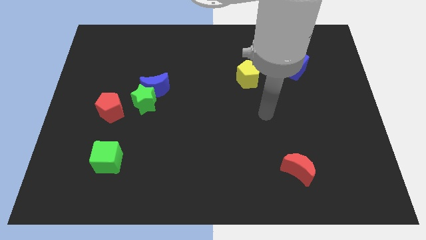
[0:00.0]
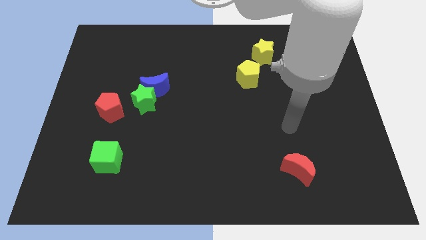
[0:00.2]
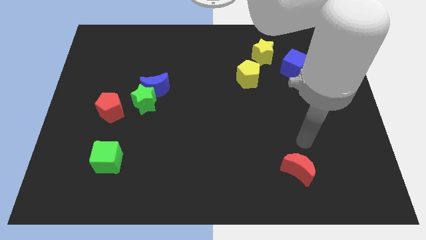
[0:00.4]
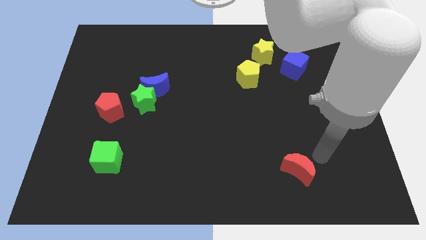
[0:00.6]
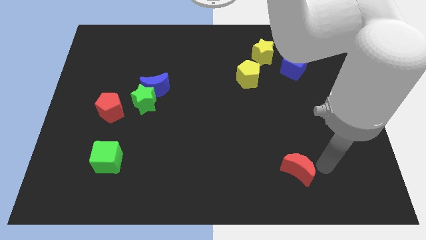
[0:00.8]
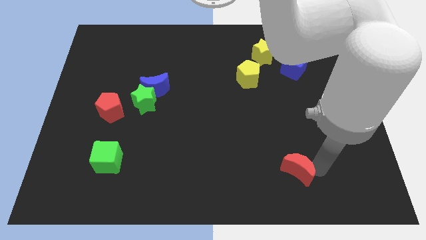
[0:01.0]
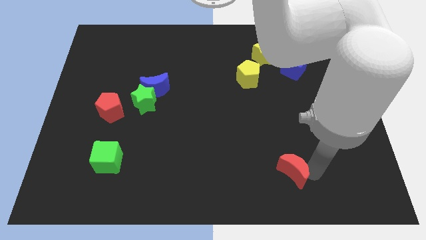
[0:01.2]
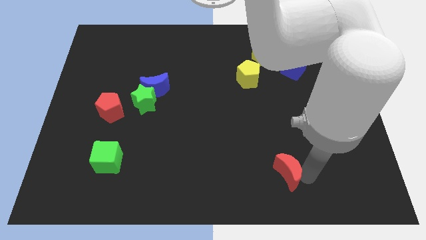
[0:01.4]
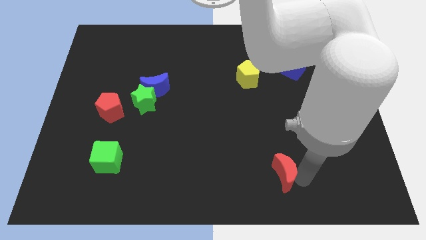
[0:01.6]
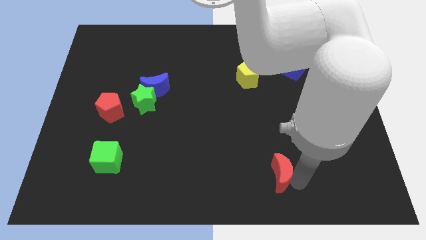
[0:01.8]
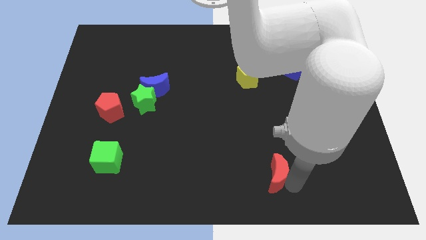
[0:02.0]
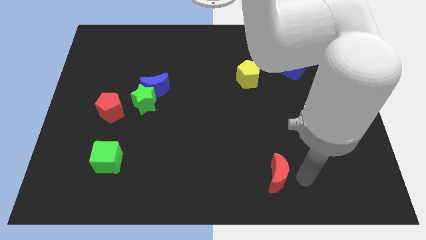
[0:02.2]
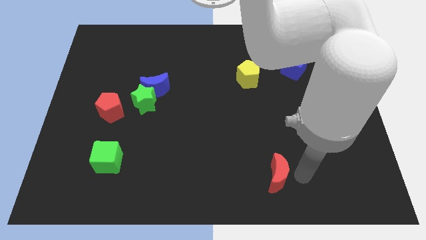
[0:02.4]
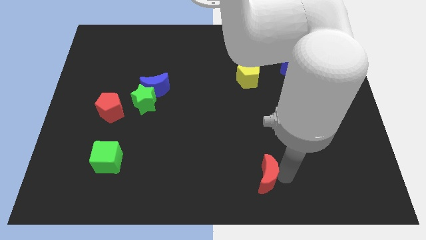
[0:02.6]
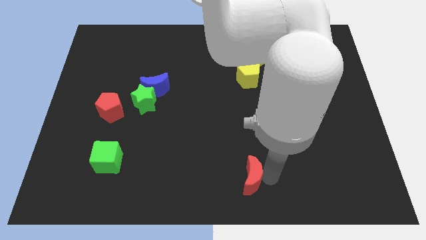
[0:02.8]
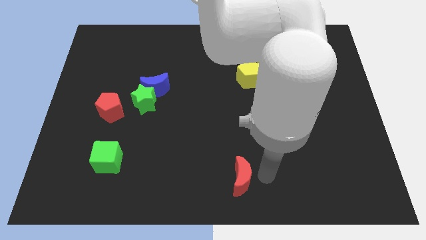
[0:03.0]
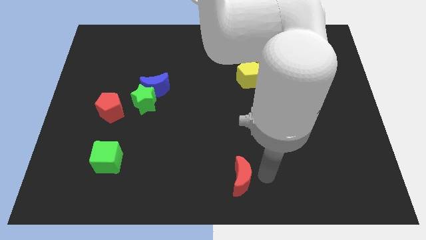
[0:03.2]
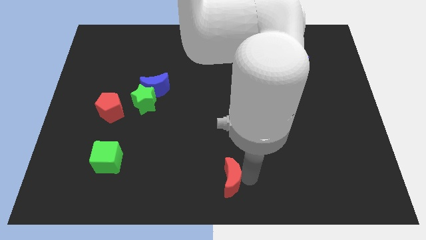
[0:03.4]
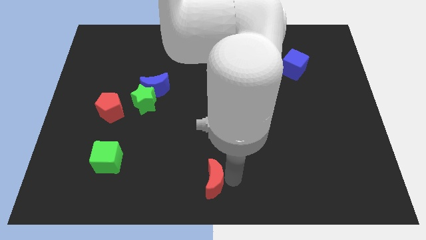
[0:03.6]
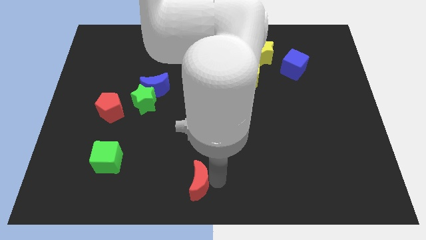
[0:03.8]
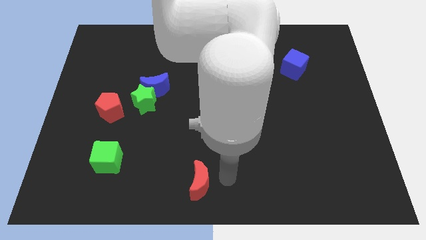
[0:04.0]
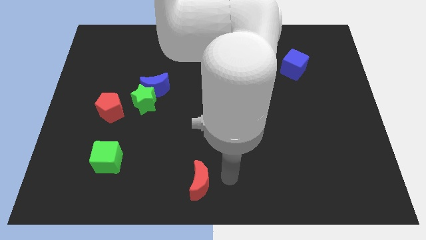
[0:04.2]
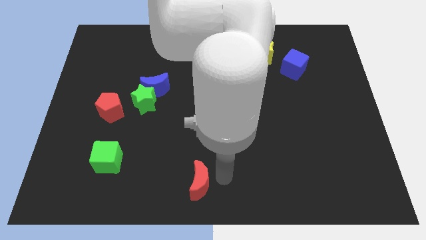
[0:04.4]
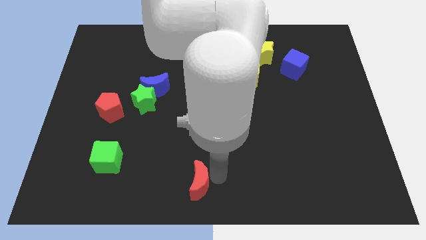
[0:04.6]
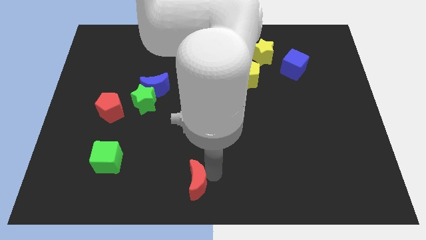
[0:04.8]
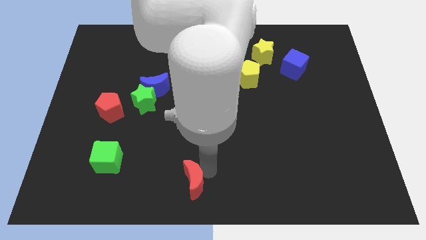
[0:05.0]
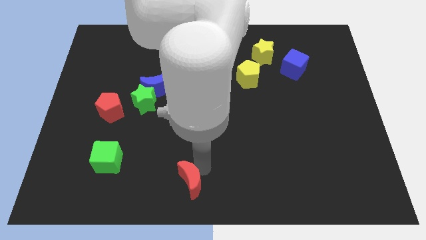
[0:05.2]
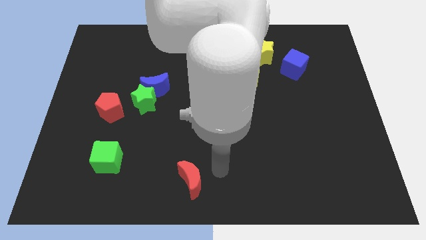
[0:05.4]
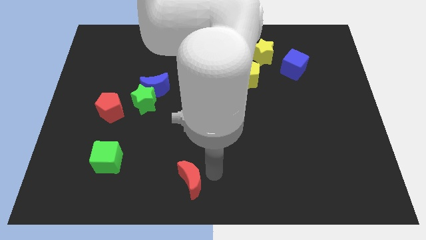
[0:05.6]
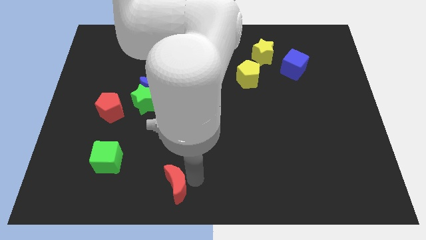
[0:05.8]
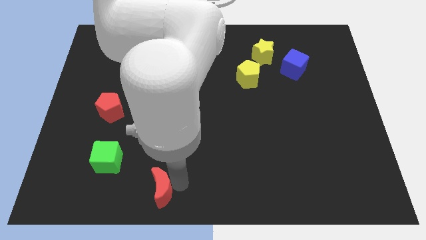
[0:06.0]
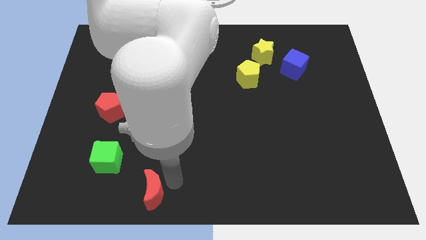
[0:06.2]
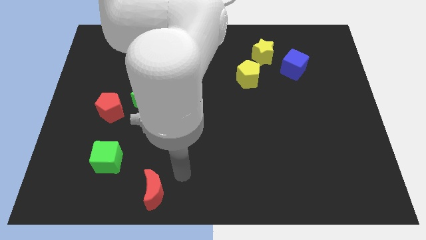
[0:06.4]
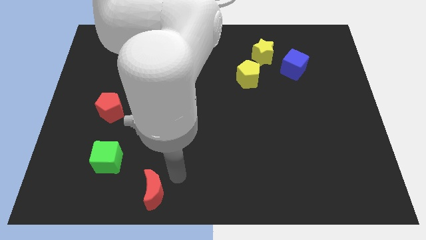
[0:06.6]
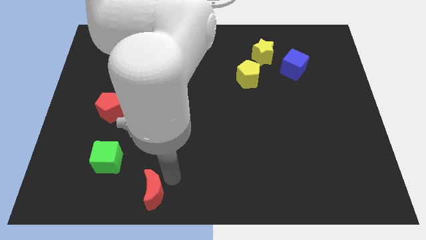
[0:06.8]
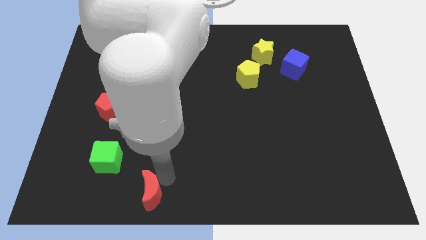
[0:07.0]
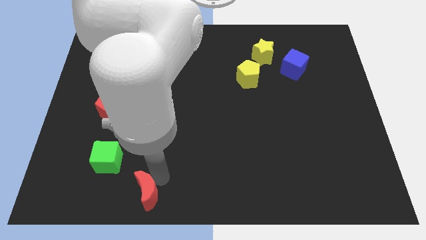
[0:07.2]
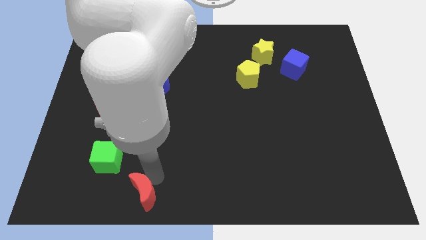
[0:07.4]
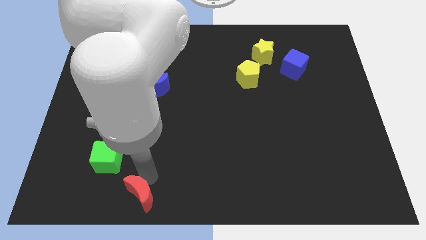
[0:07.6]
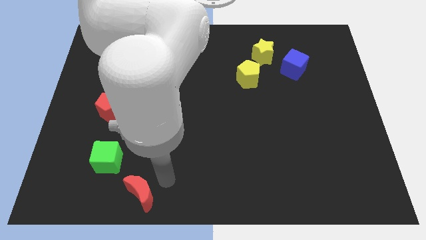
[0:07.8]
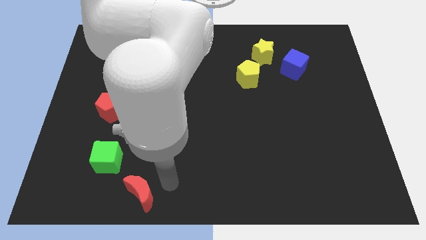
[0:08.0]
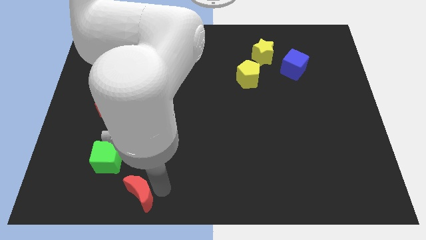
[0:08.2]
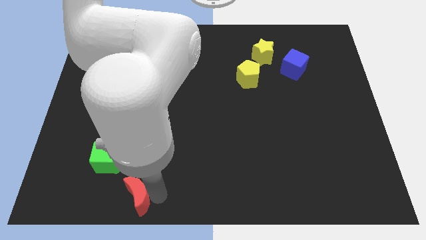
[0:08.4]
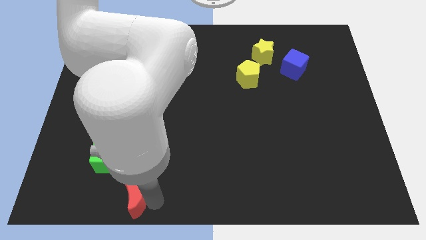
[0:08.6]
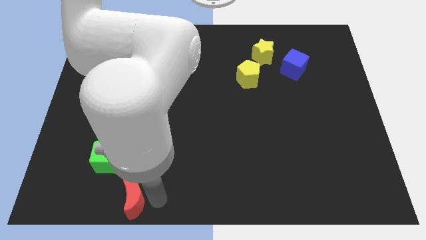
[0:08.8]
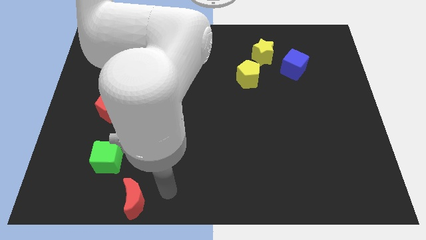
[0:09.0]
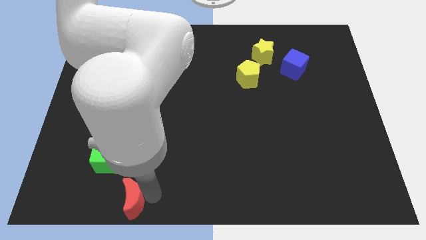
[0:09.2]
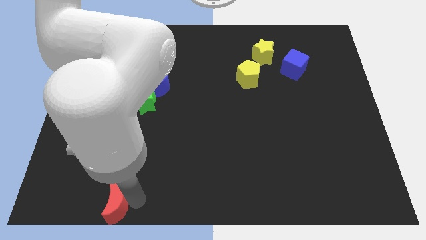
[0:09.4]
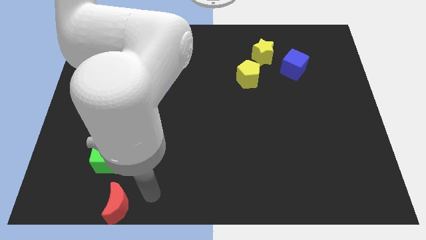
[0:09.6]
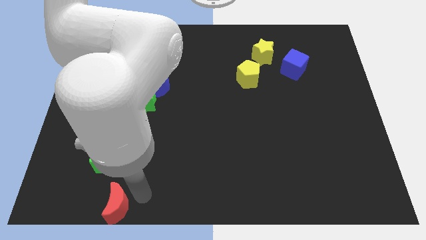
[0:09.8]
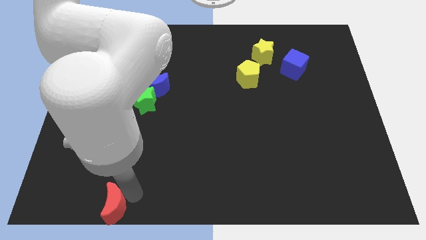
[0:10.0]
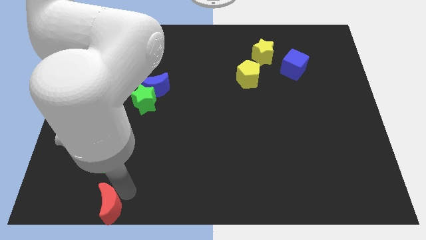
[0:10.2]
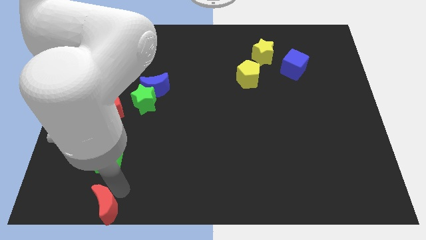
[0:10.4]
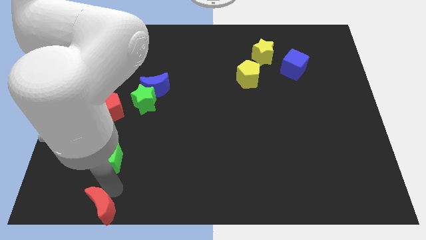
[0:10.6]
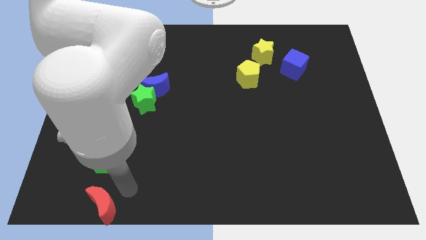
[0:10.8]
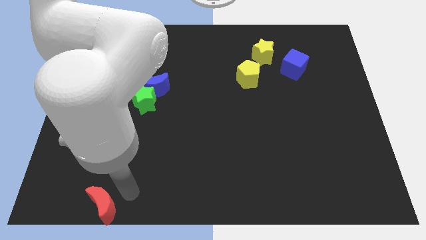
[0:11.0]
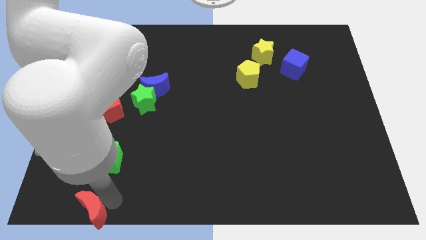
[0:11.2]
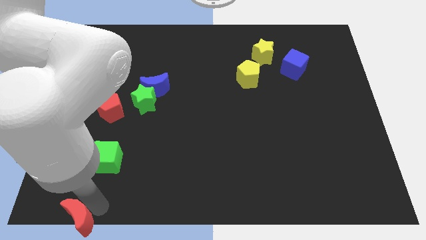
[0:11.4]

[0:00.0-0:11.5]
push the red moon to the bottom left

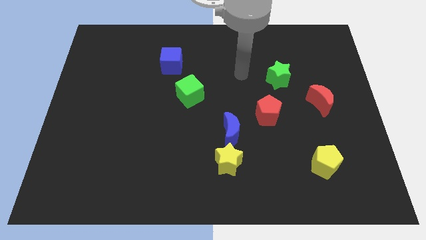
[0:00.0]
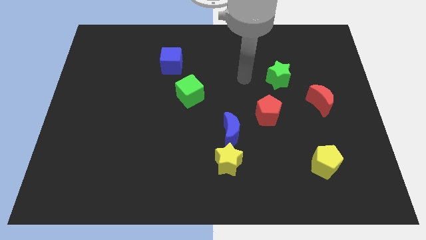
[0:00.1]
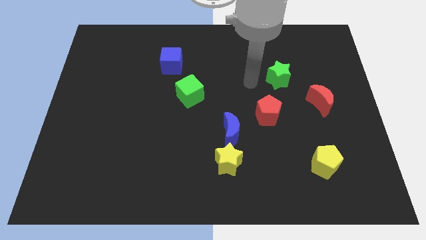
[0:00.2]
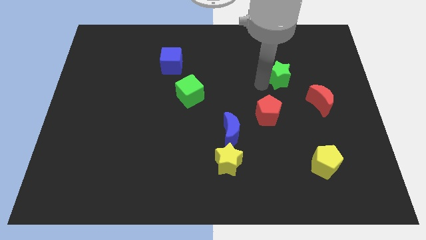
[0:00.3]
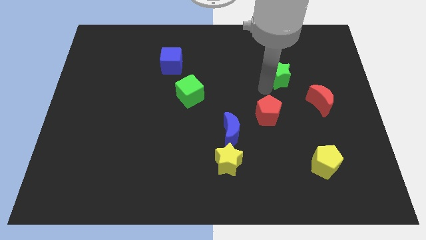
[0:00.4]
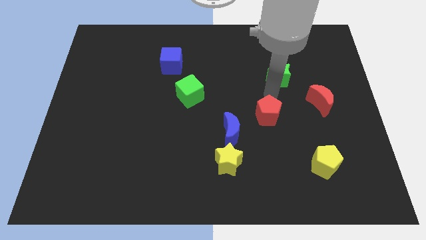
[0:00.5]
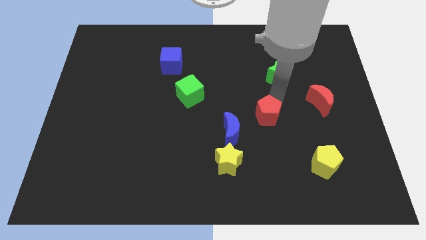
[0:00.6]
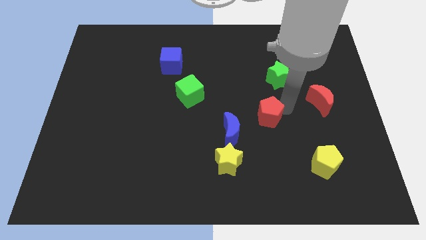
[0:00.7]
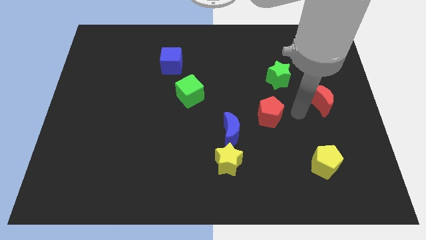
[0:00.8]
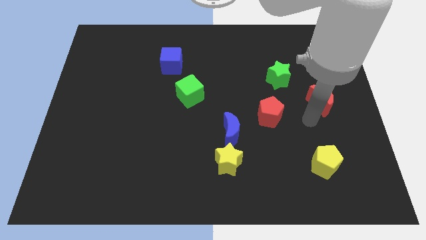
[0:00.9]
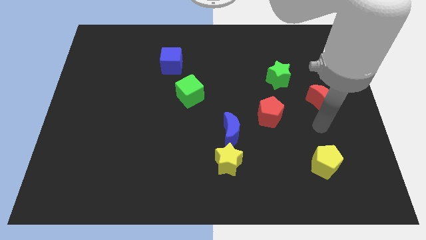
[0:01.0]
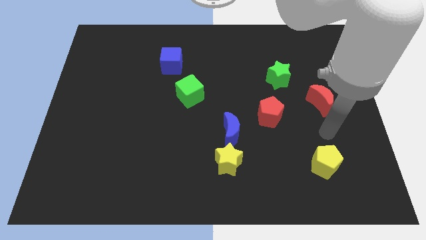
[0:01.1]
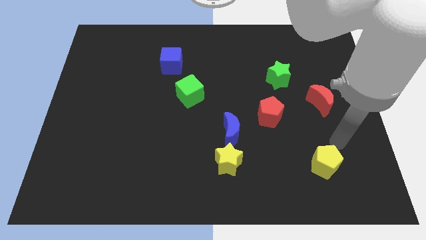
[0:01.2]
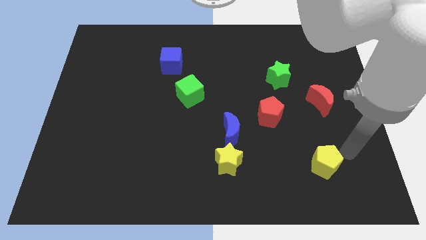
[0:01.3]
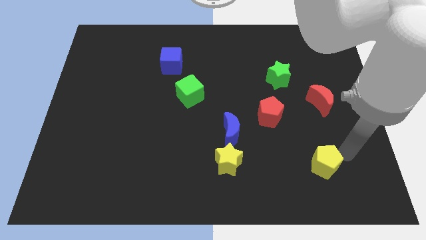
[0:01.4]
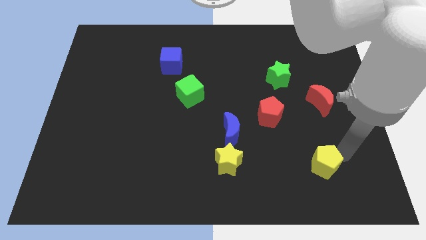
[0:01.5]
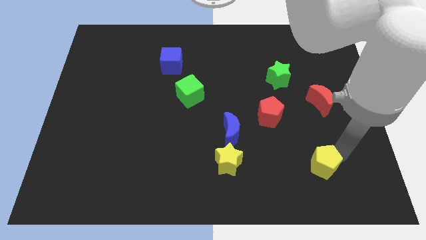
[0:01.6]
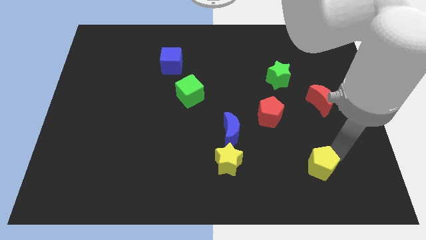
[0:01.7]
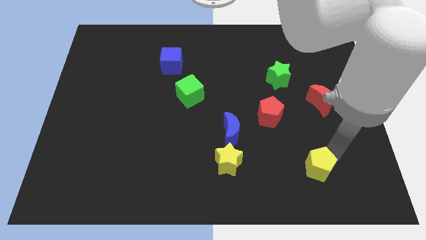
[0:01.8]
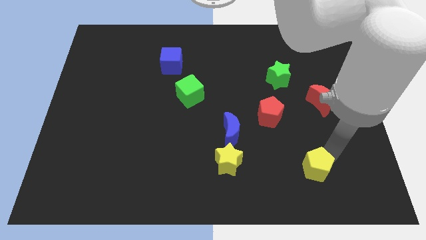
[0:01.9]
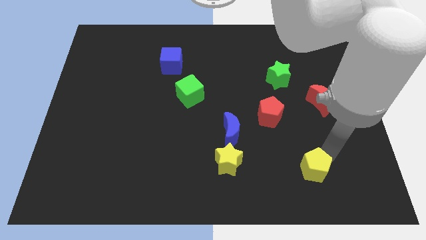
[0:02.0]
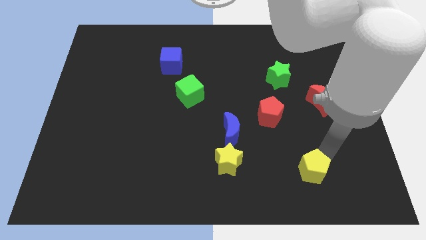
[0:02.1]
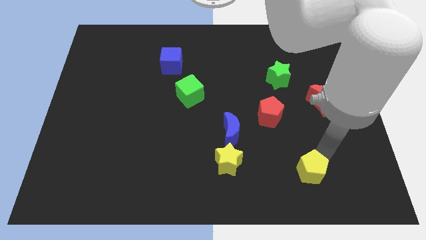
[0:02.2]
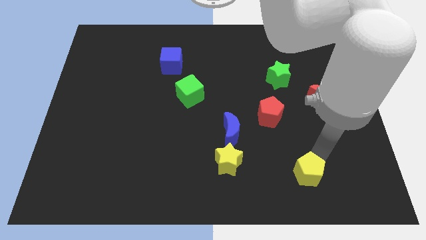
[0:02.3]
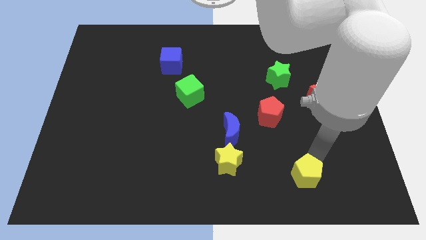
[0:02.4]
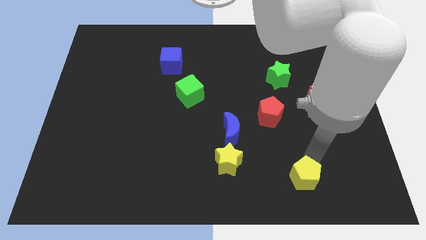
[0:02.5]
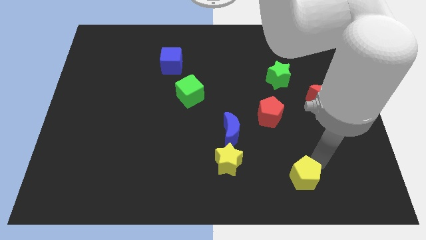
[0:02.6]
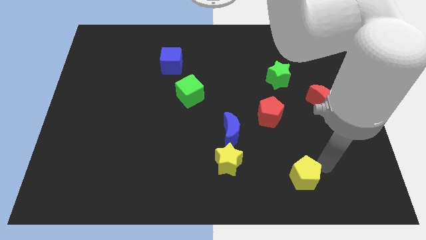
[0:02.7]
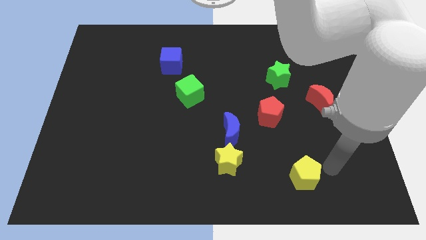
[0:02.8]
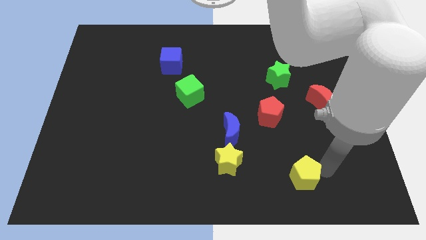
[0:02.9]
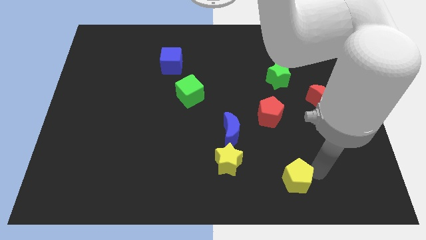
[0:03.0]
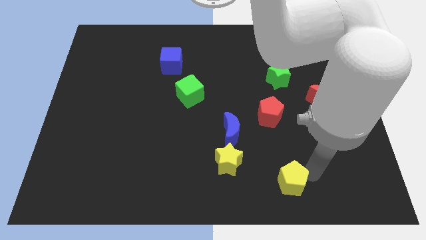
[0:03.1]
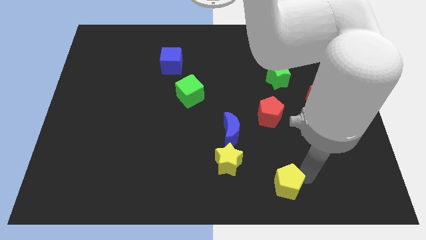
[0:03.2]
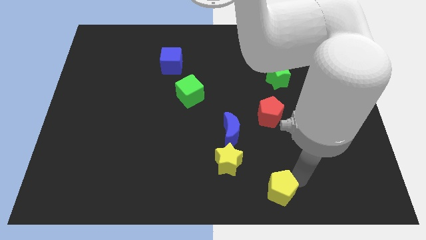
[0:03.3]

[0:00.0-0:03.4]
slide the yellow pentagon to the bottom
